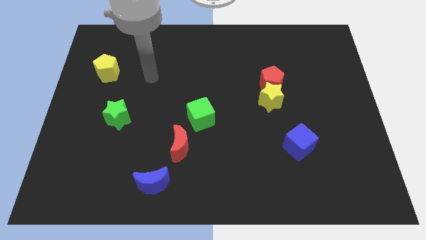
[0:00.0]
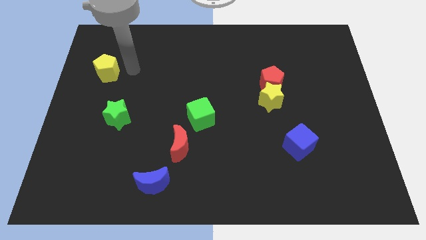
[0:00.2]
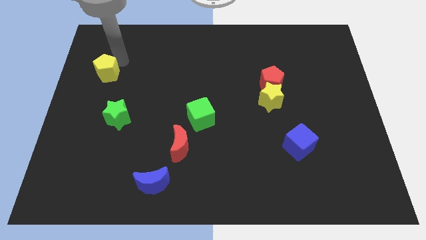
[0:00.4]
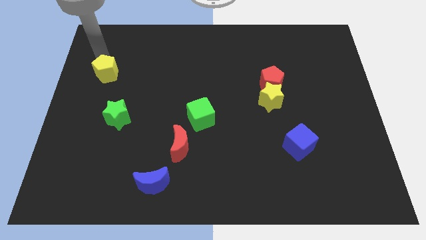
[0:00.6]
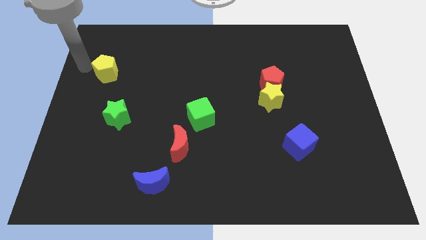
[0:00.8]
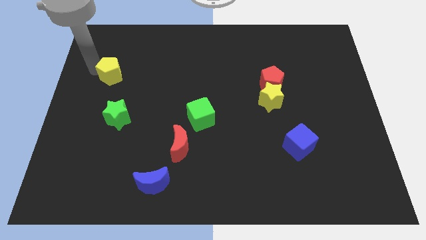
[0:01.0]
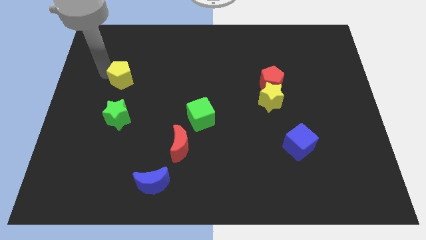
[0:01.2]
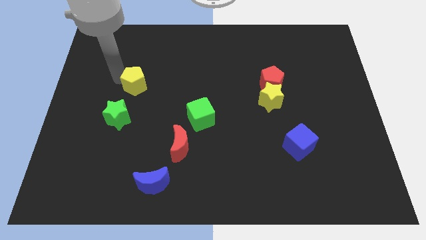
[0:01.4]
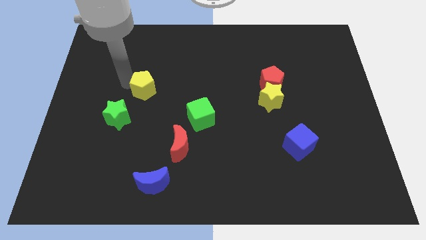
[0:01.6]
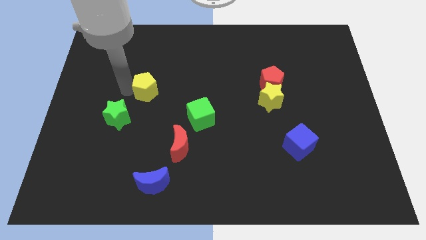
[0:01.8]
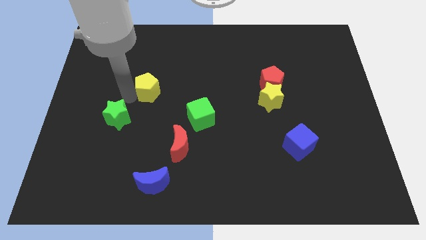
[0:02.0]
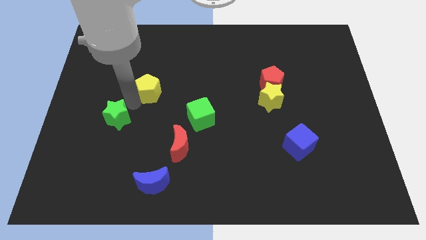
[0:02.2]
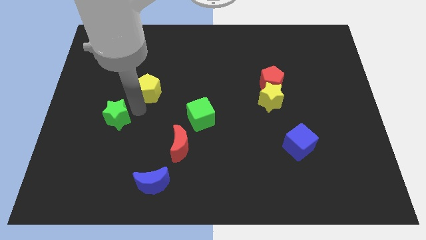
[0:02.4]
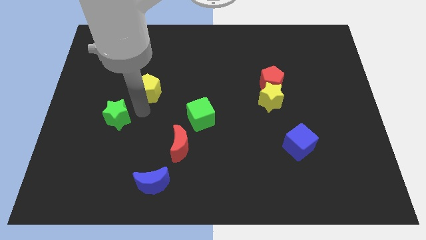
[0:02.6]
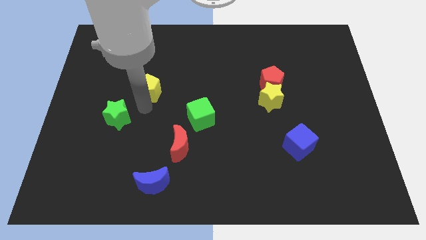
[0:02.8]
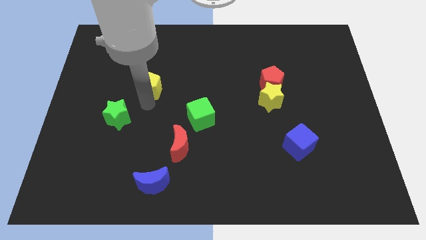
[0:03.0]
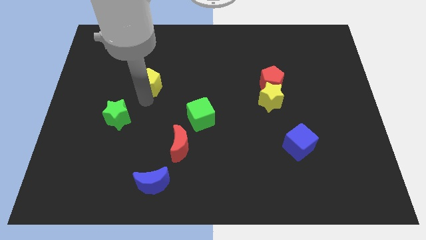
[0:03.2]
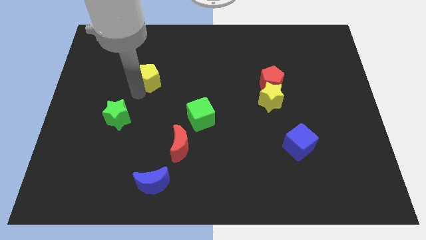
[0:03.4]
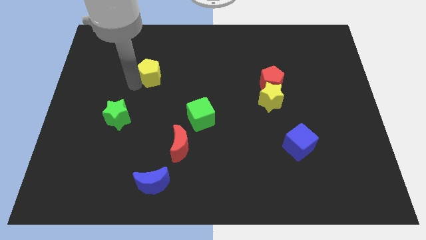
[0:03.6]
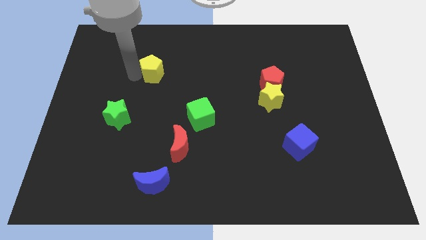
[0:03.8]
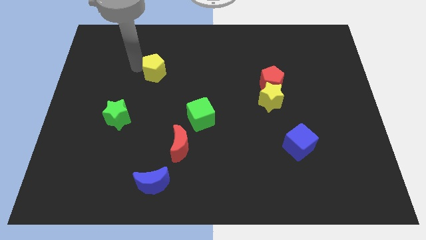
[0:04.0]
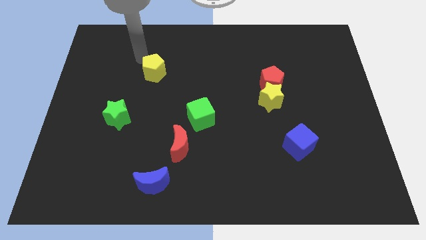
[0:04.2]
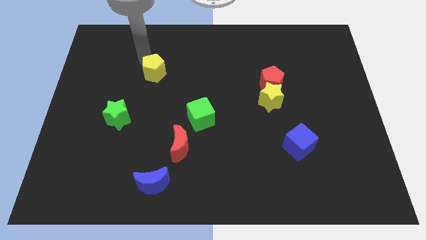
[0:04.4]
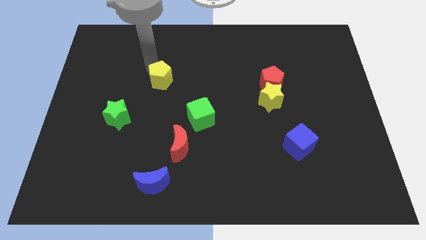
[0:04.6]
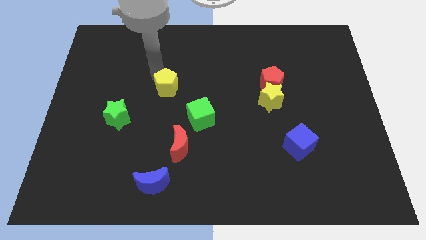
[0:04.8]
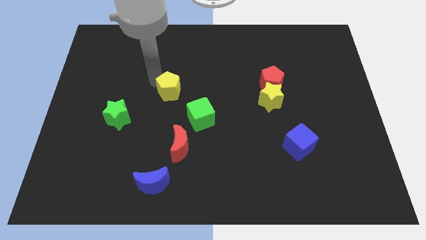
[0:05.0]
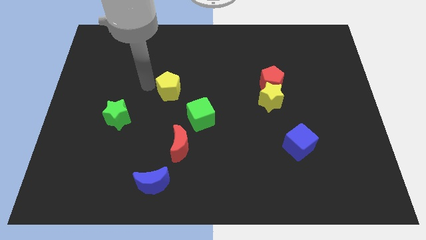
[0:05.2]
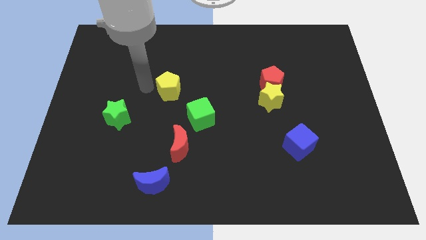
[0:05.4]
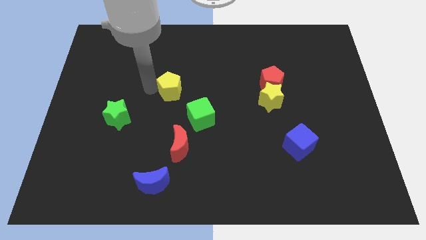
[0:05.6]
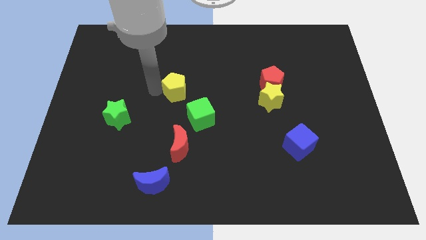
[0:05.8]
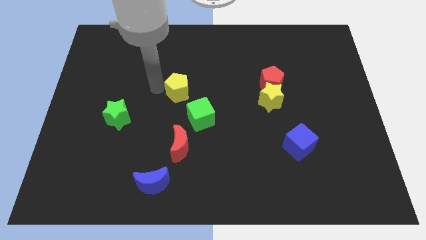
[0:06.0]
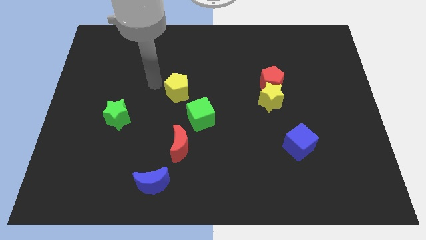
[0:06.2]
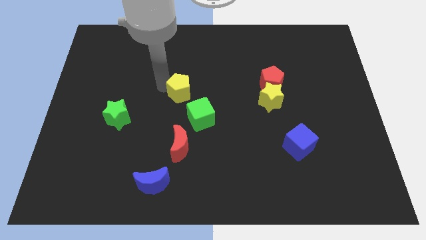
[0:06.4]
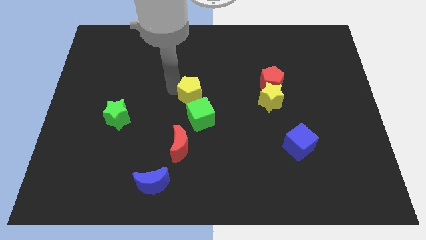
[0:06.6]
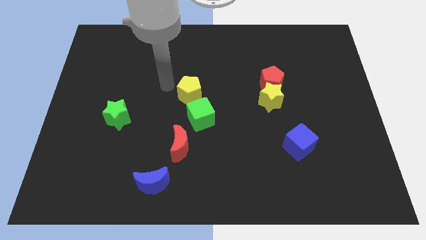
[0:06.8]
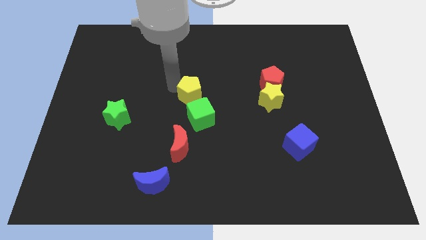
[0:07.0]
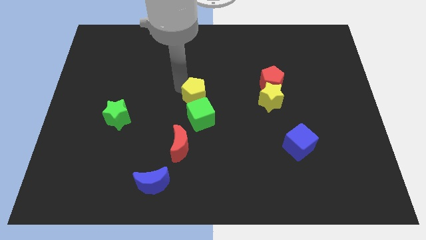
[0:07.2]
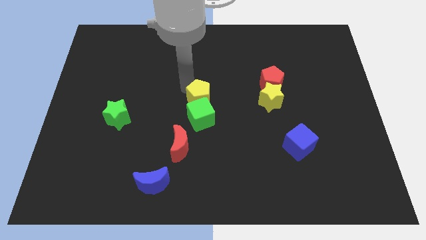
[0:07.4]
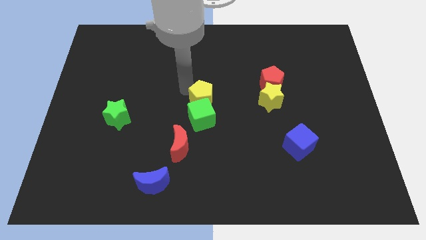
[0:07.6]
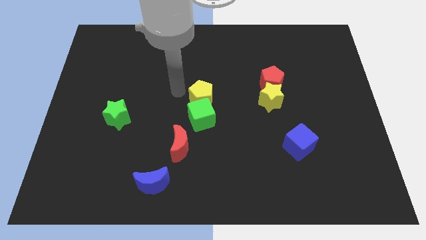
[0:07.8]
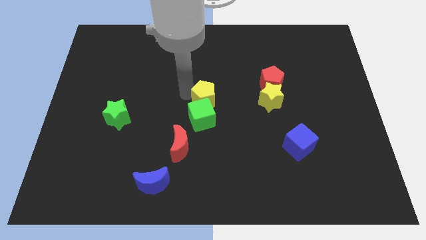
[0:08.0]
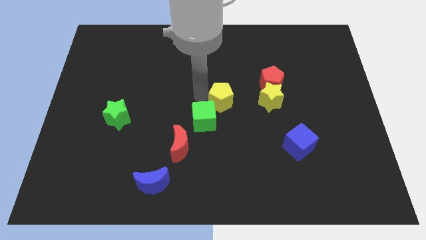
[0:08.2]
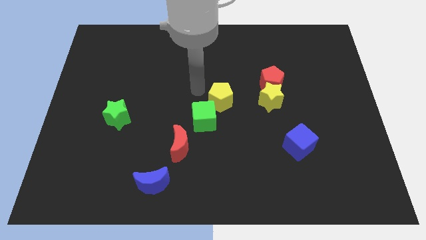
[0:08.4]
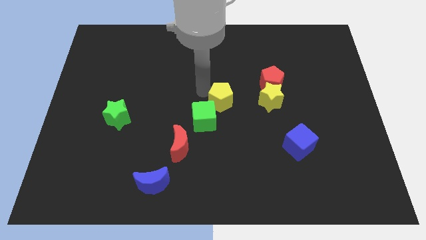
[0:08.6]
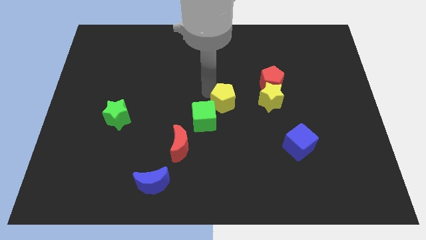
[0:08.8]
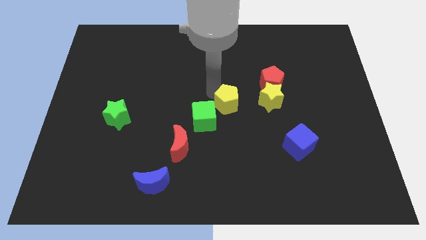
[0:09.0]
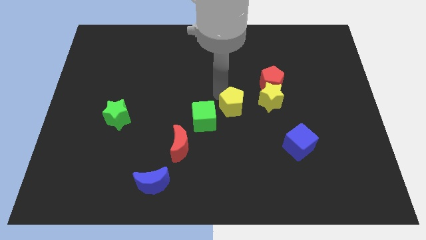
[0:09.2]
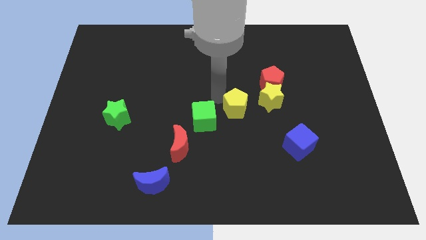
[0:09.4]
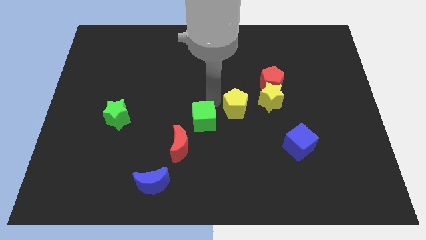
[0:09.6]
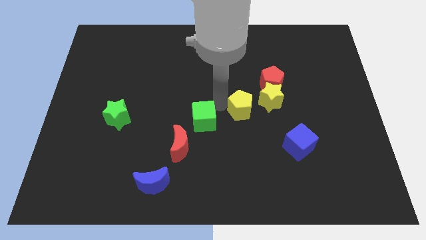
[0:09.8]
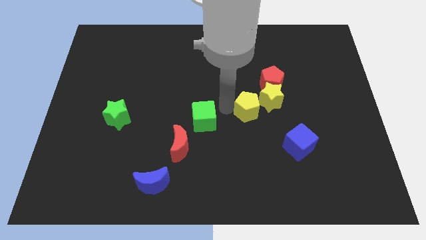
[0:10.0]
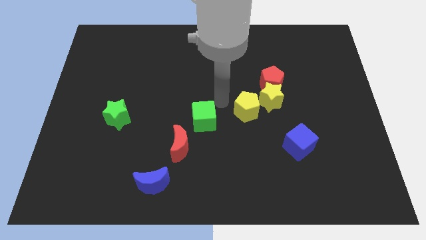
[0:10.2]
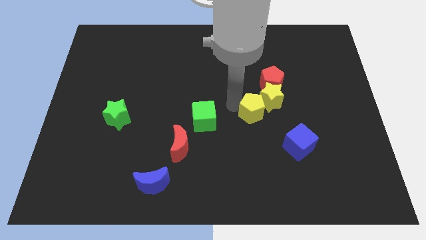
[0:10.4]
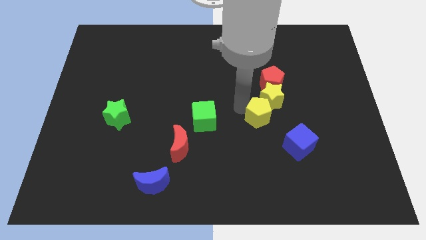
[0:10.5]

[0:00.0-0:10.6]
move the yellow pentagon to the bottom of the red pentagon

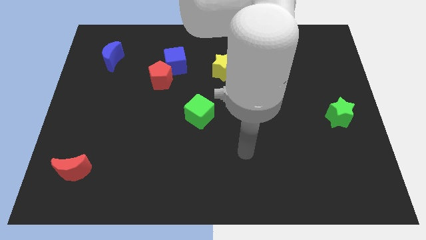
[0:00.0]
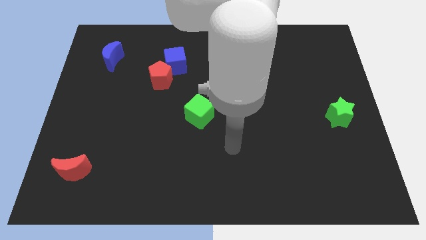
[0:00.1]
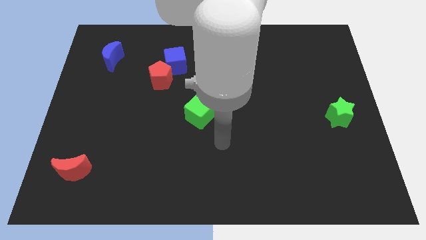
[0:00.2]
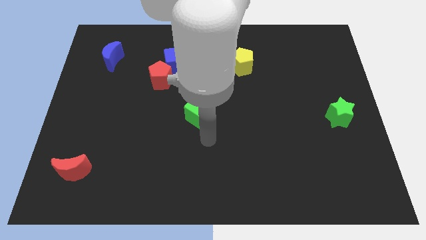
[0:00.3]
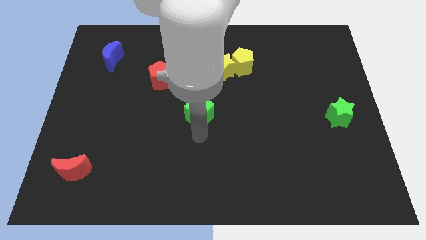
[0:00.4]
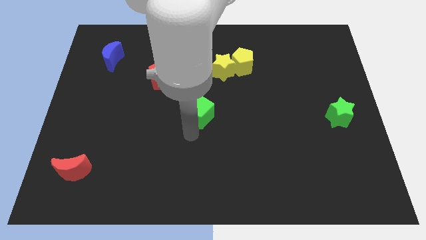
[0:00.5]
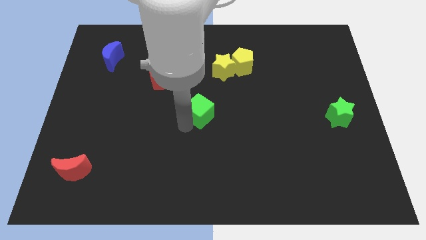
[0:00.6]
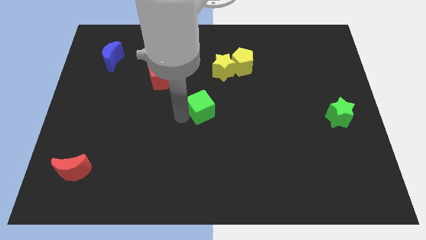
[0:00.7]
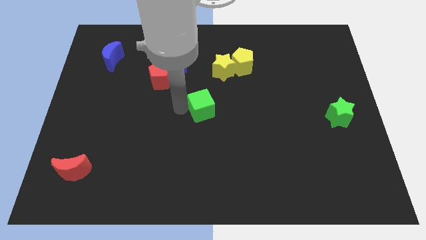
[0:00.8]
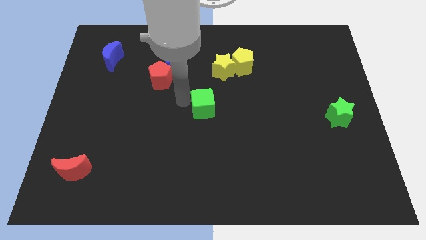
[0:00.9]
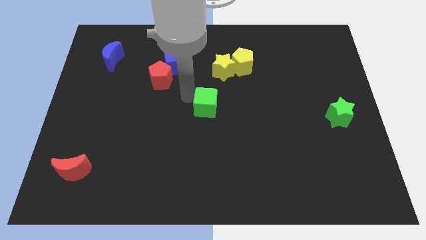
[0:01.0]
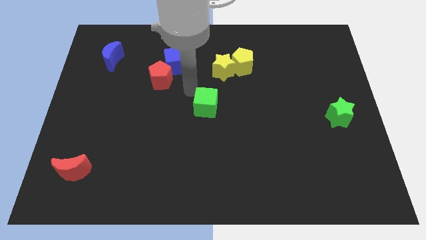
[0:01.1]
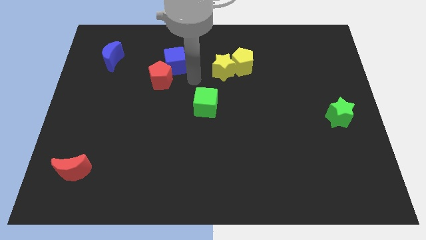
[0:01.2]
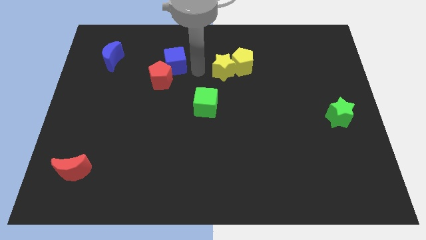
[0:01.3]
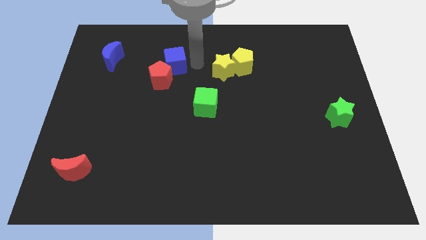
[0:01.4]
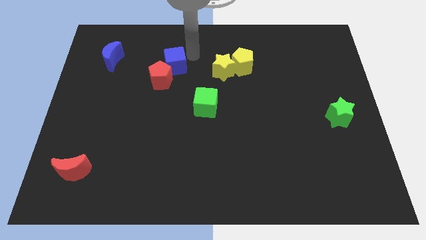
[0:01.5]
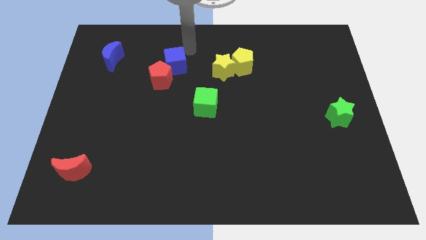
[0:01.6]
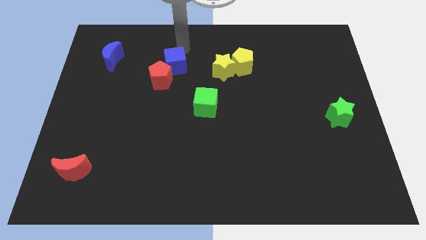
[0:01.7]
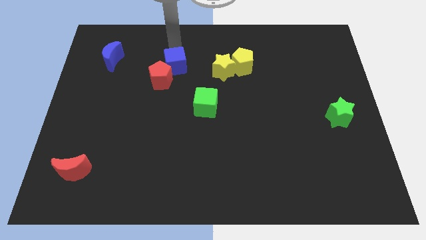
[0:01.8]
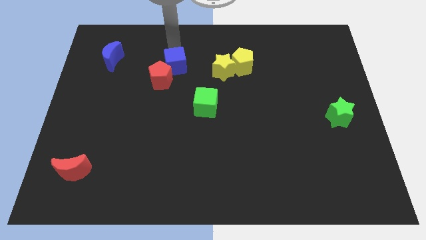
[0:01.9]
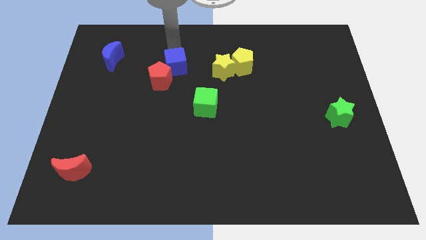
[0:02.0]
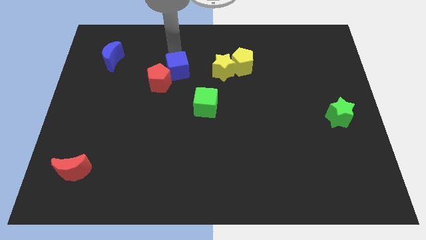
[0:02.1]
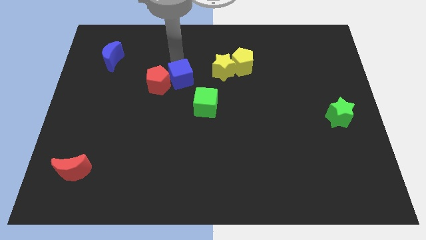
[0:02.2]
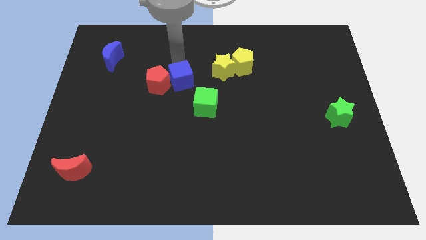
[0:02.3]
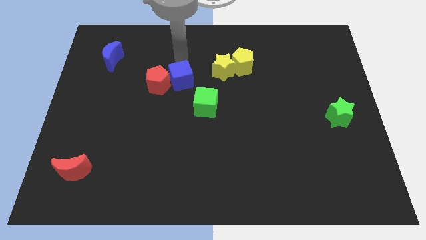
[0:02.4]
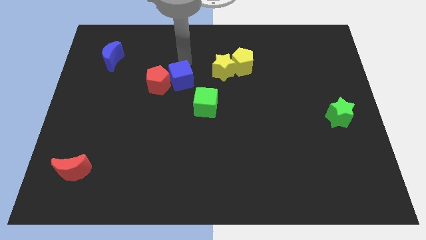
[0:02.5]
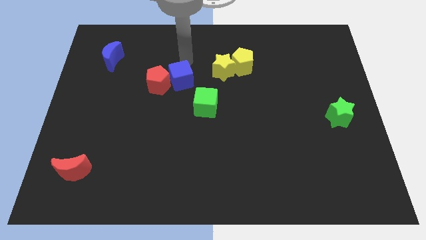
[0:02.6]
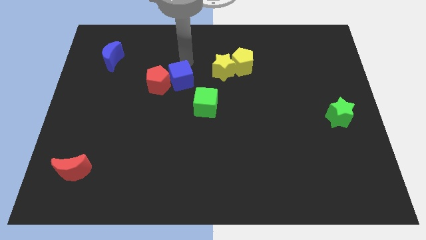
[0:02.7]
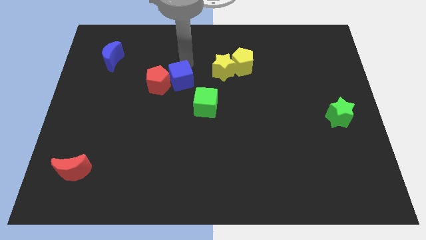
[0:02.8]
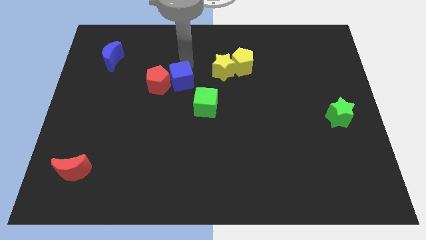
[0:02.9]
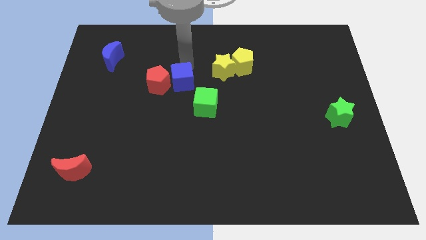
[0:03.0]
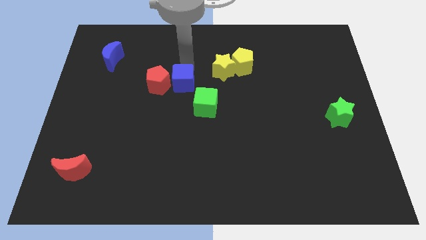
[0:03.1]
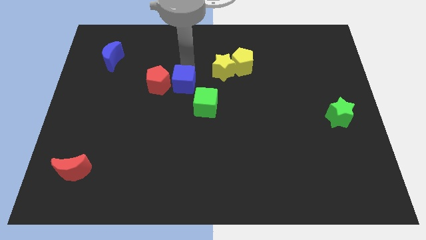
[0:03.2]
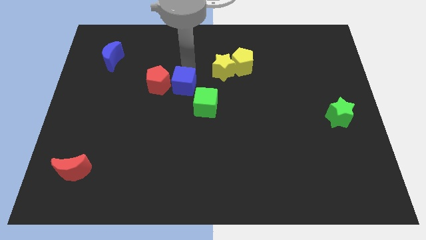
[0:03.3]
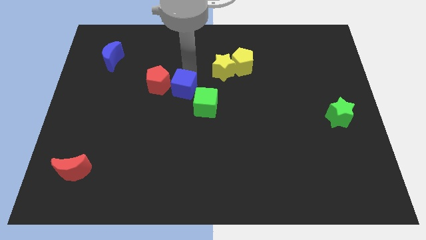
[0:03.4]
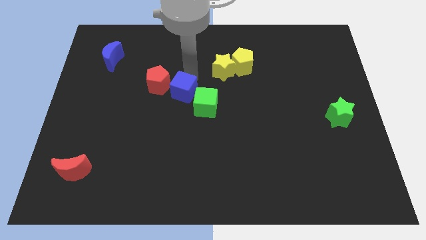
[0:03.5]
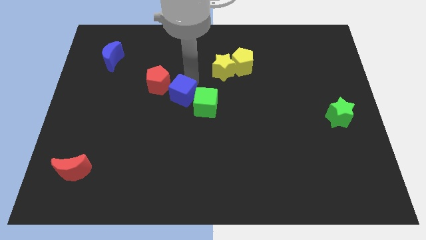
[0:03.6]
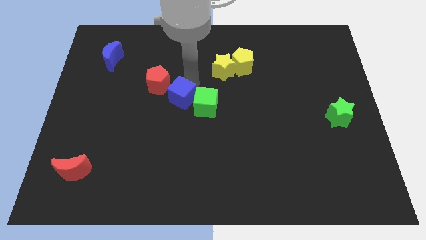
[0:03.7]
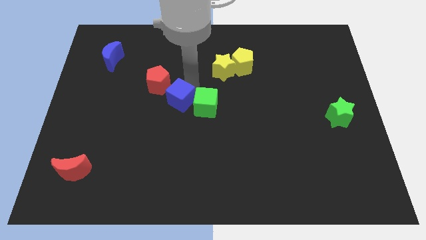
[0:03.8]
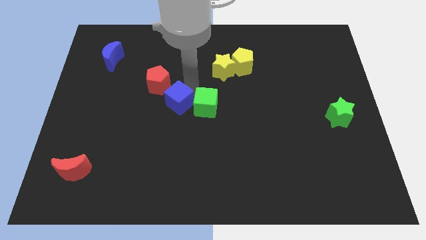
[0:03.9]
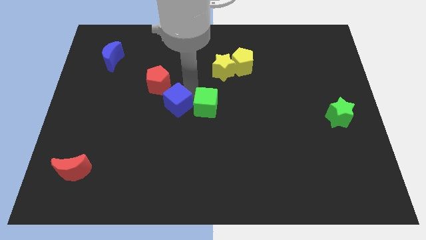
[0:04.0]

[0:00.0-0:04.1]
move the blue cube to the bottom of the red pentagon
